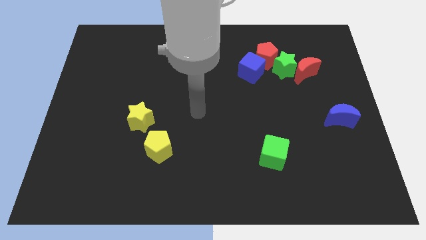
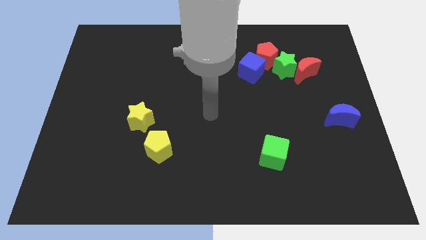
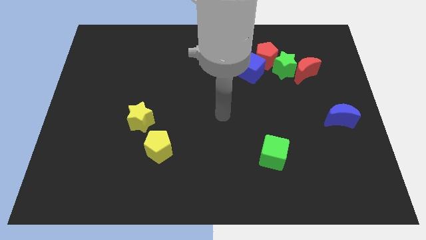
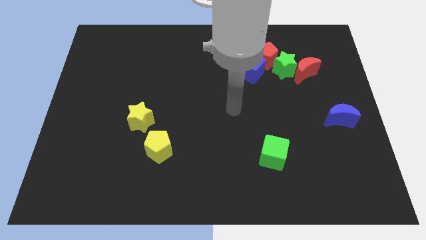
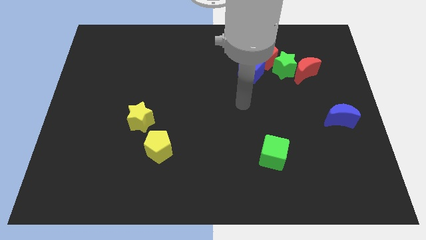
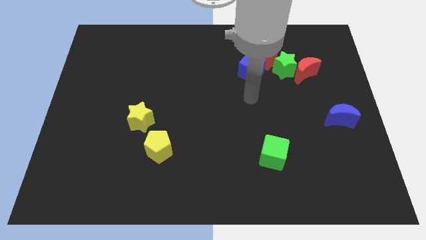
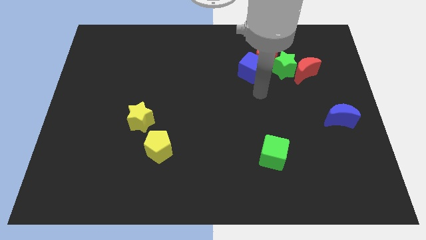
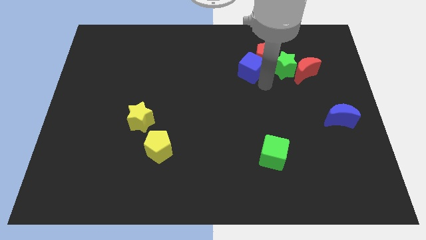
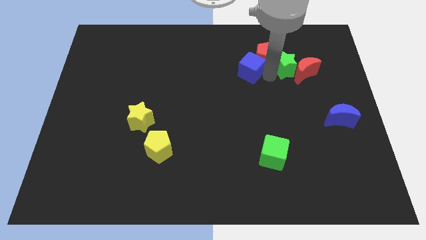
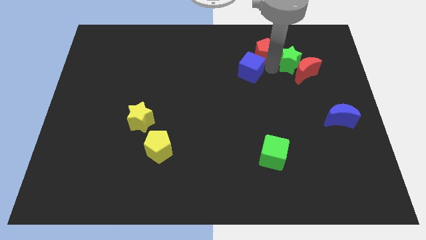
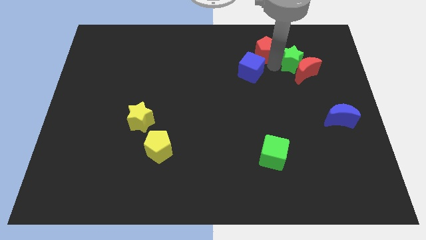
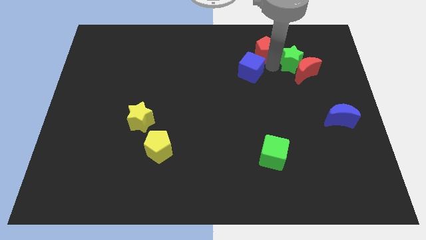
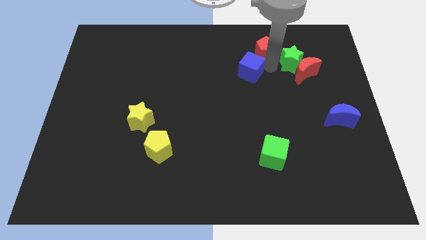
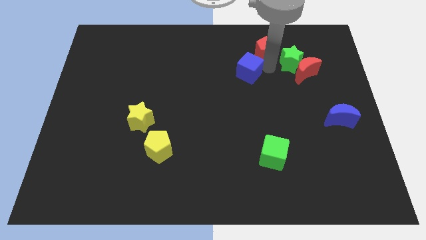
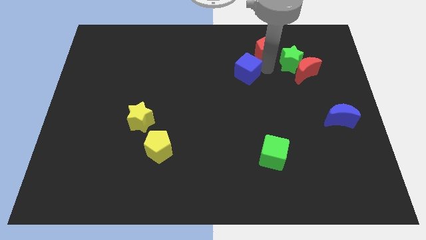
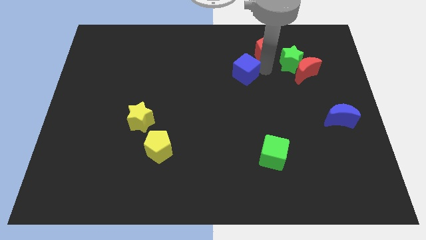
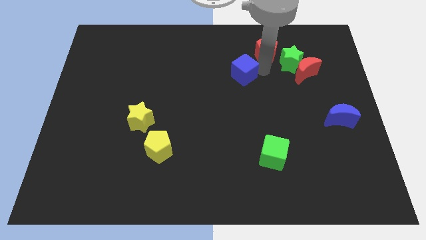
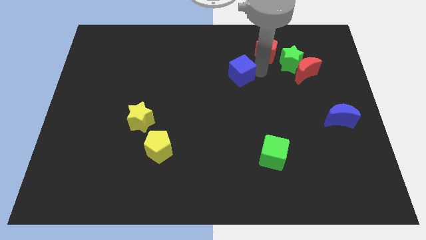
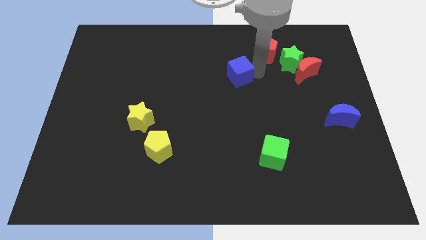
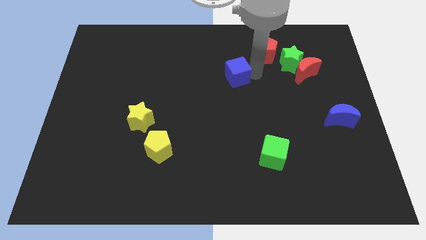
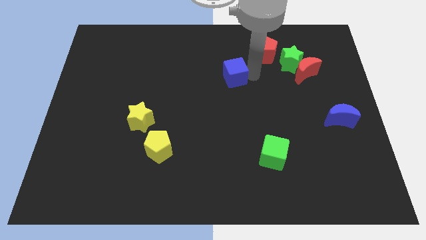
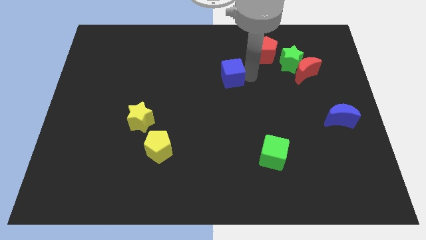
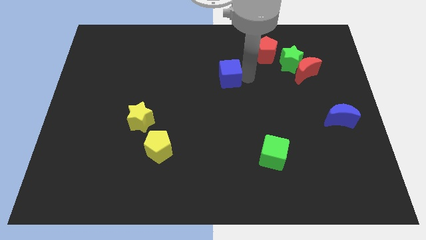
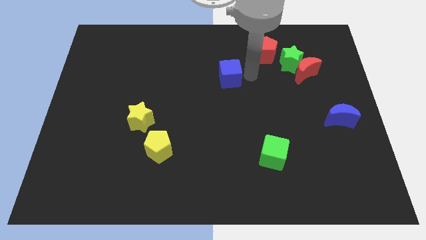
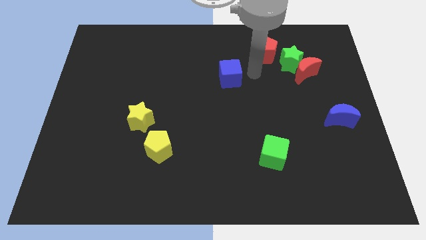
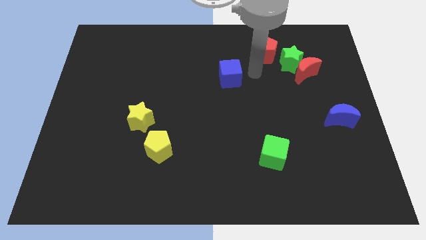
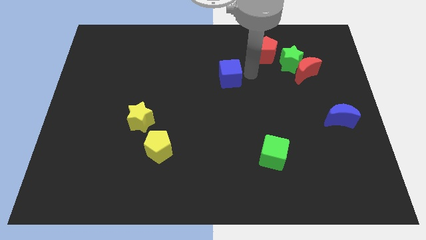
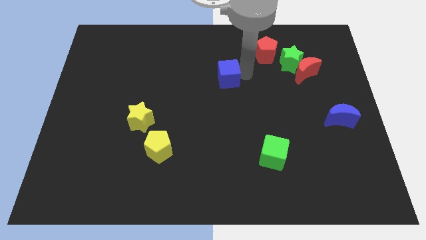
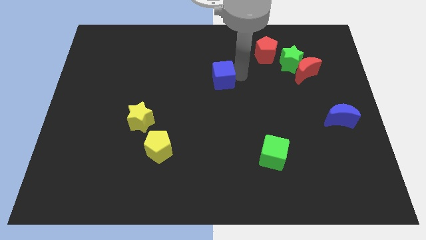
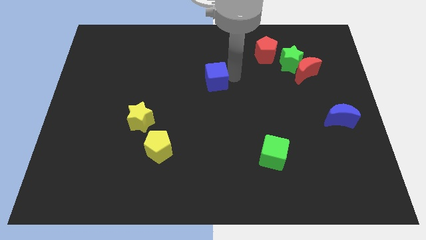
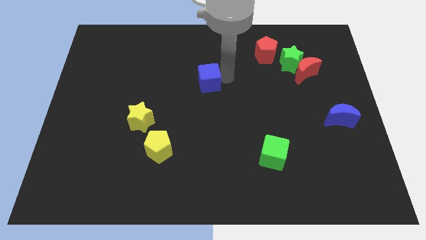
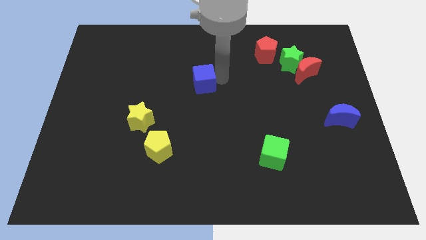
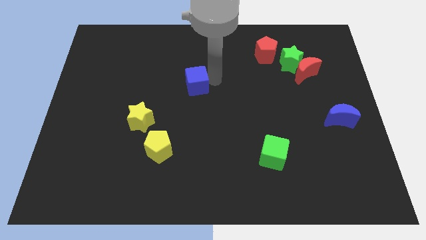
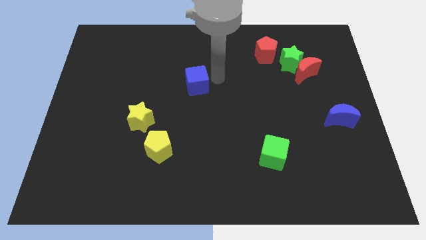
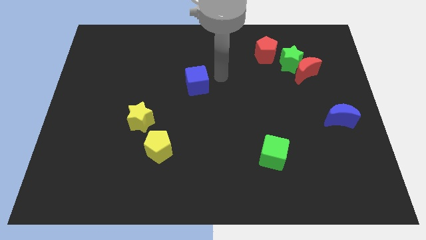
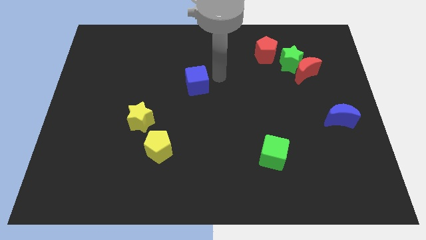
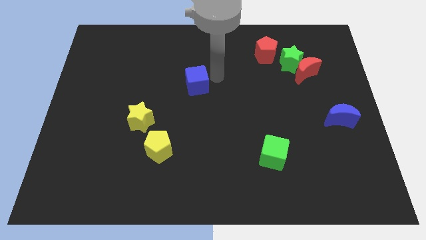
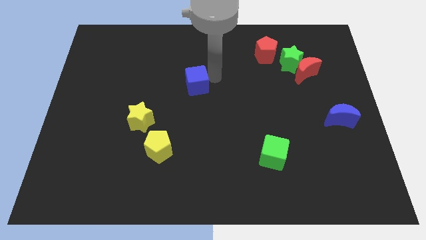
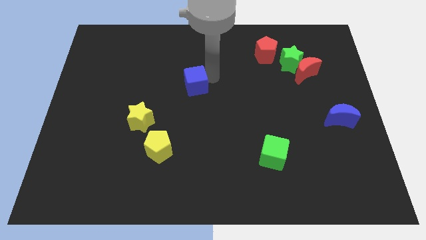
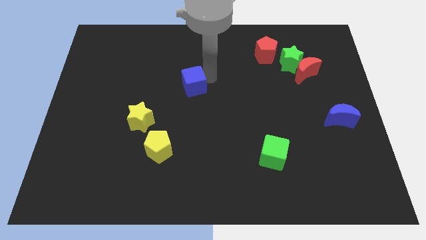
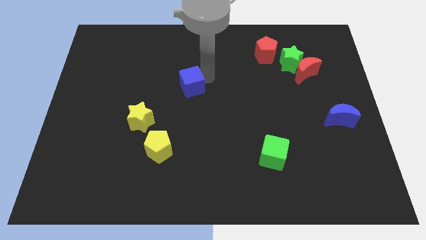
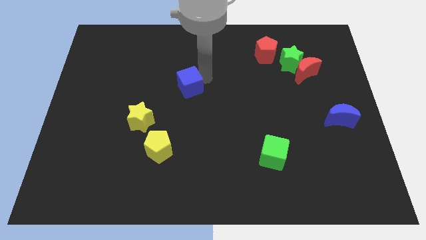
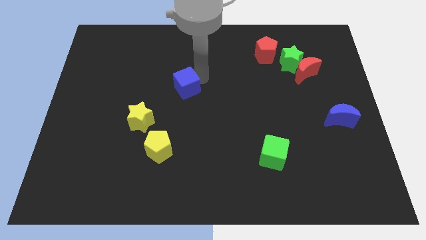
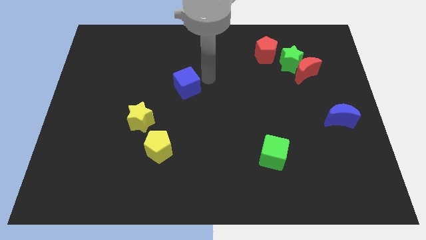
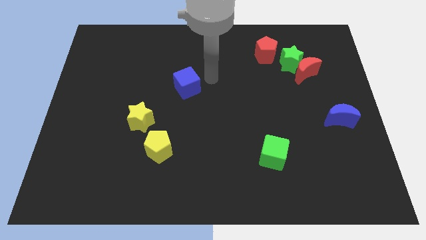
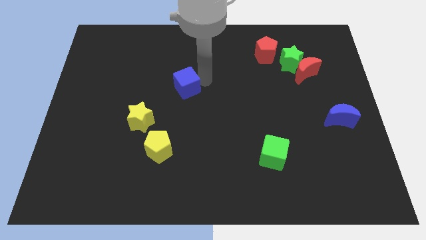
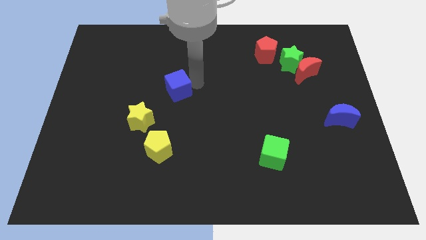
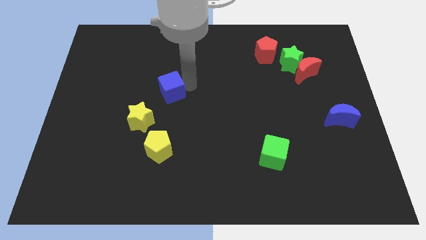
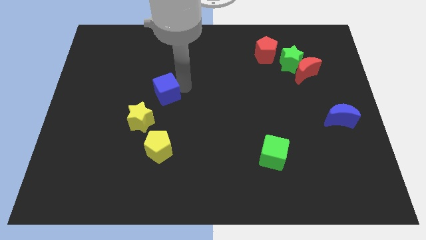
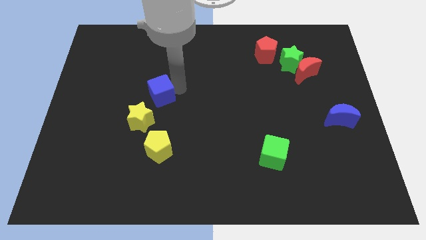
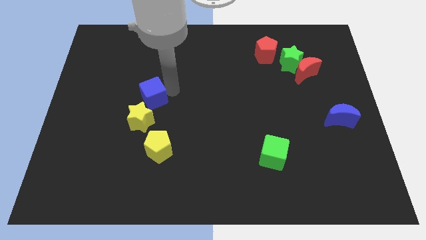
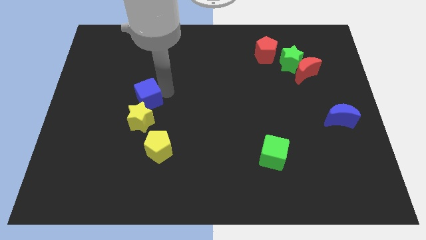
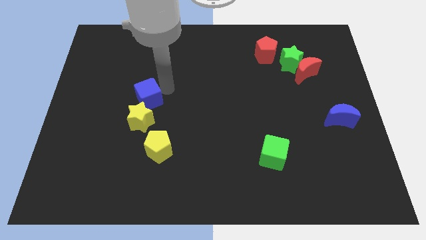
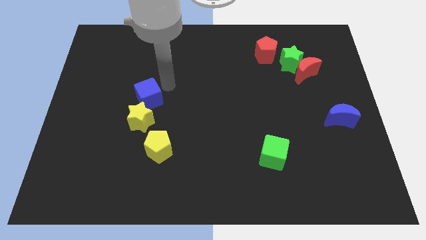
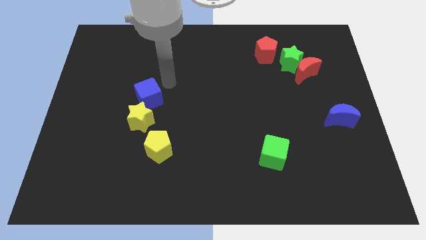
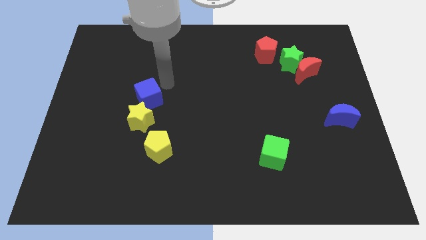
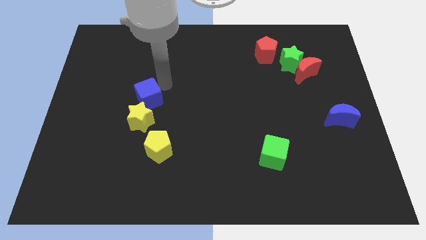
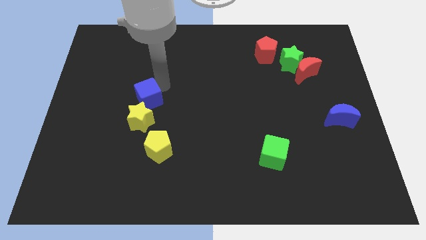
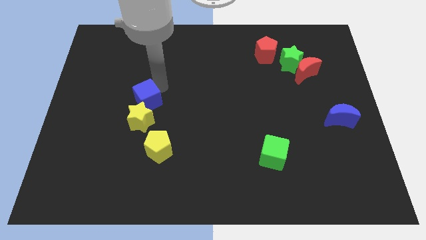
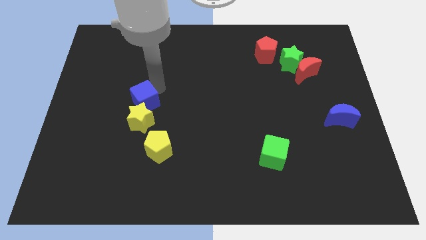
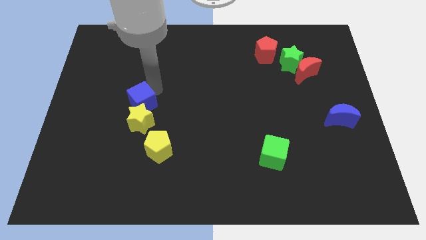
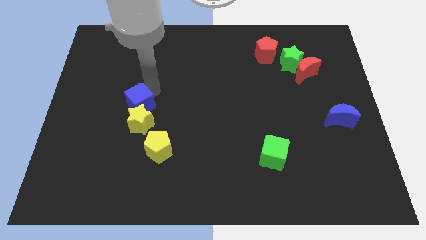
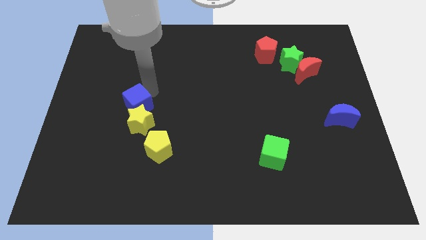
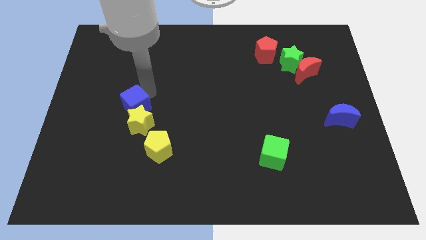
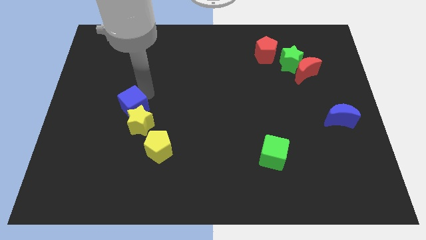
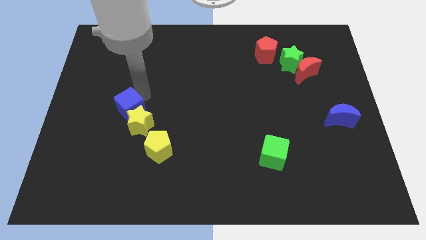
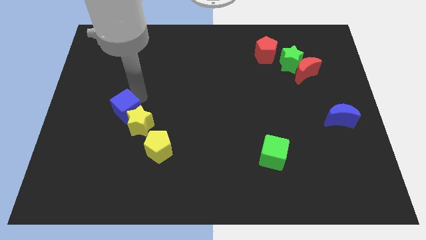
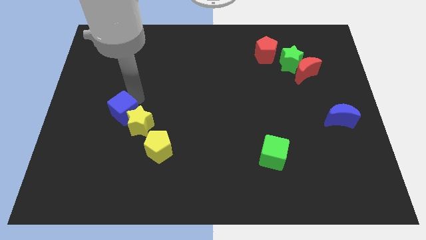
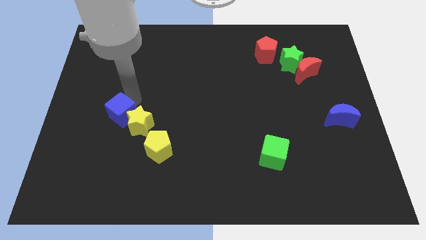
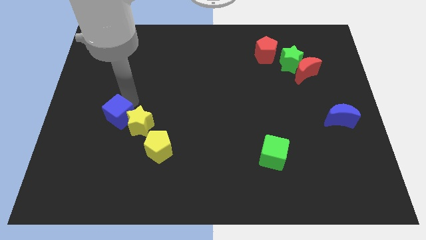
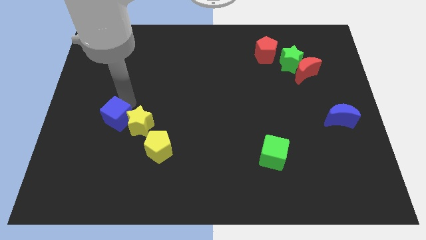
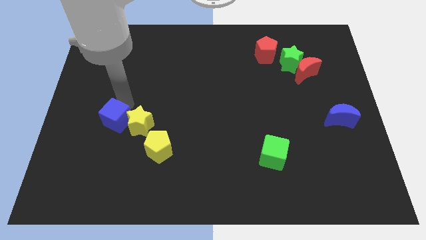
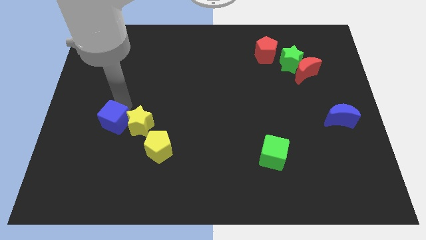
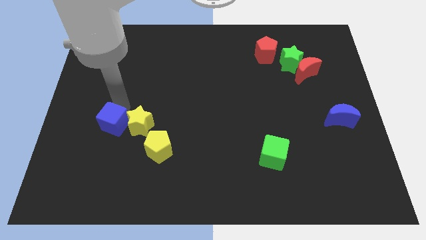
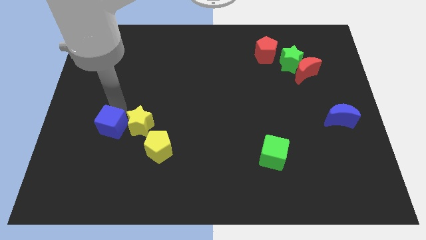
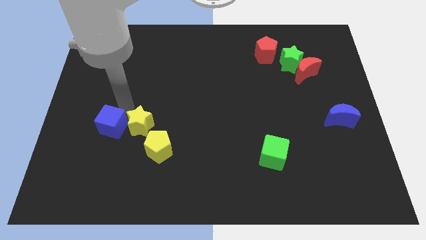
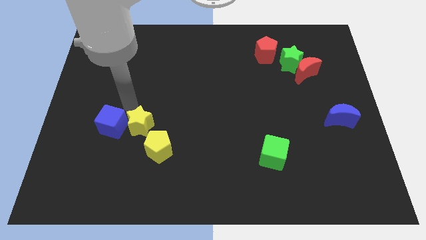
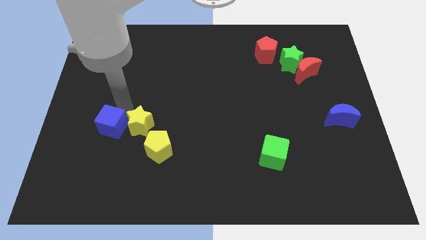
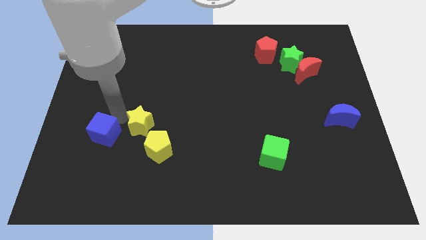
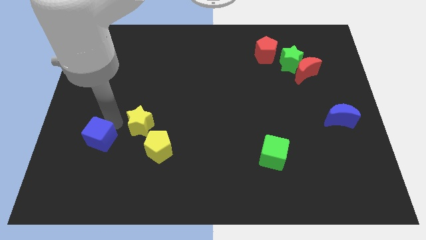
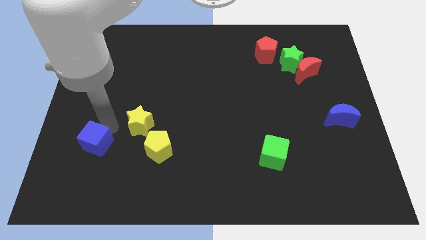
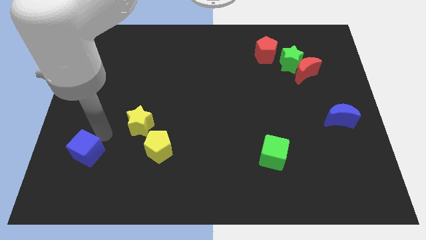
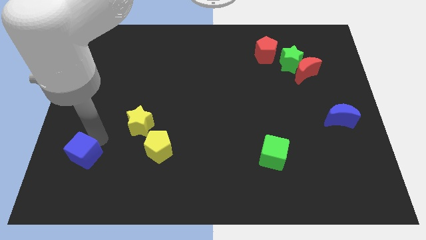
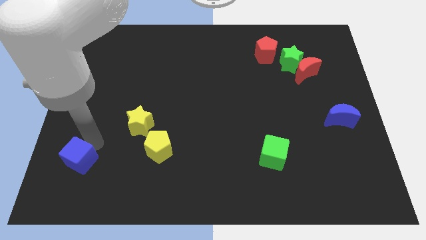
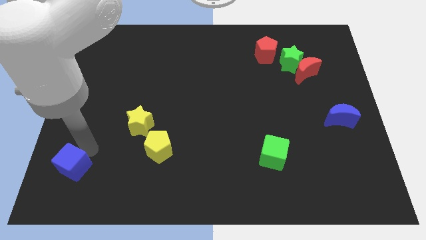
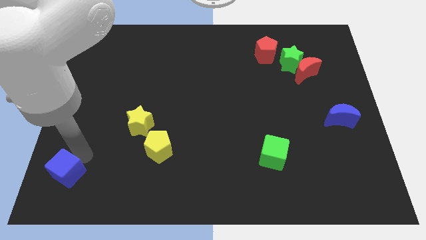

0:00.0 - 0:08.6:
push the blue cube to the bottom left of the board
